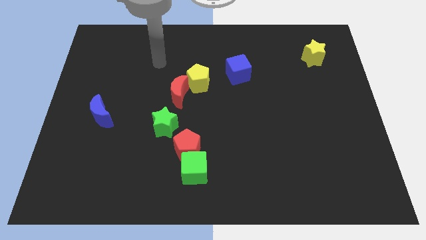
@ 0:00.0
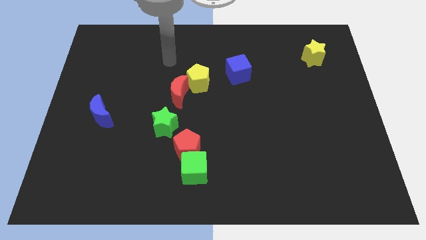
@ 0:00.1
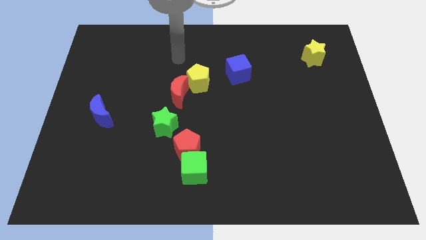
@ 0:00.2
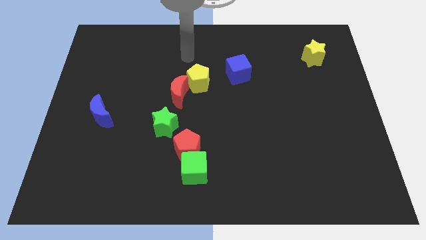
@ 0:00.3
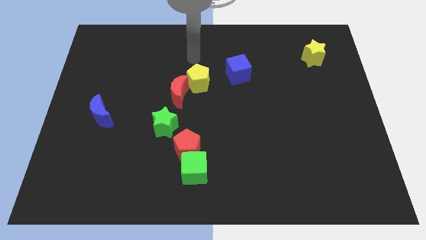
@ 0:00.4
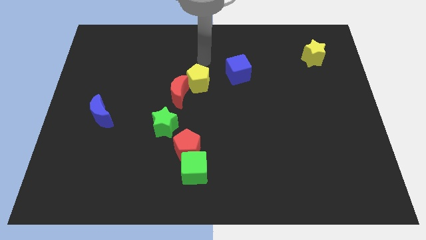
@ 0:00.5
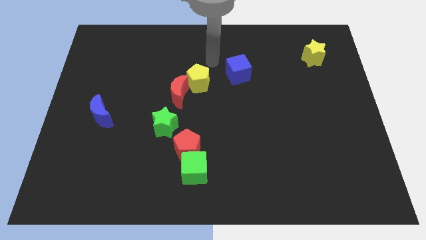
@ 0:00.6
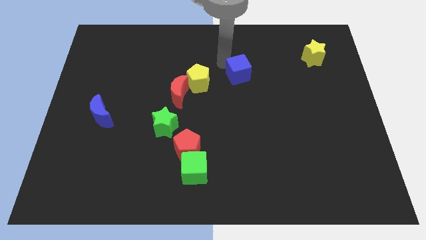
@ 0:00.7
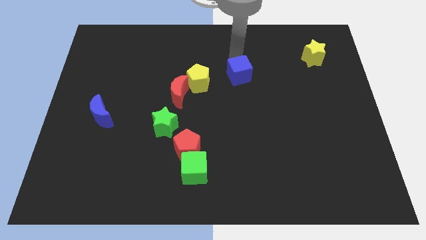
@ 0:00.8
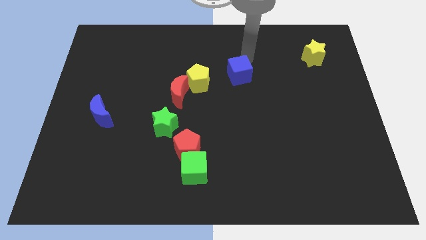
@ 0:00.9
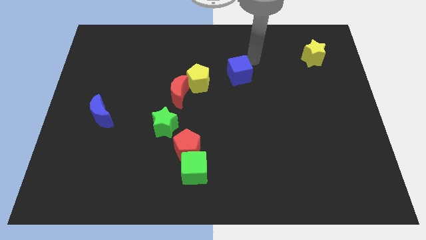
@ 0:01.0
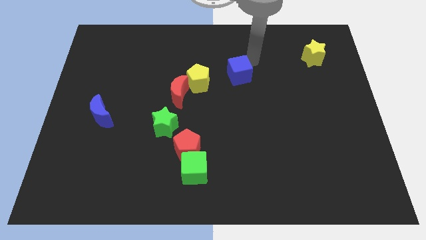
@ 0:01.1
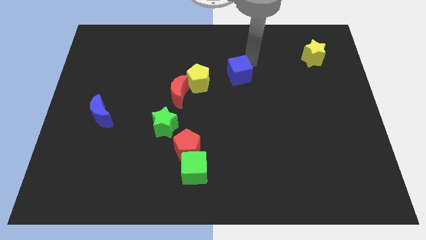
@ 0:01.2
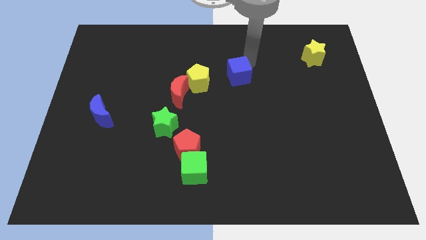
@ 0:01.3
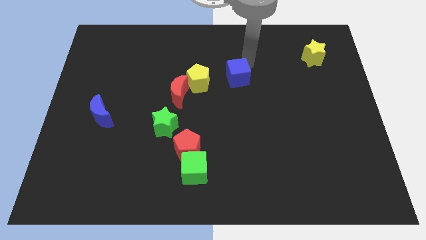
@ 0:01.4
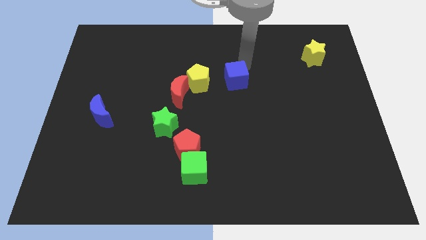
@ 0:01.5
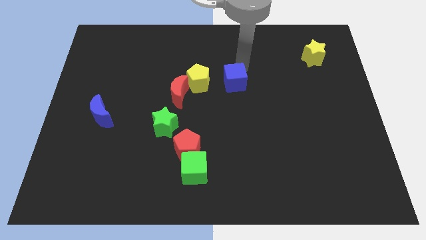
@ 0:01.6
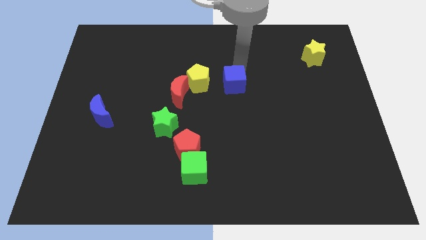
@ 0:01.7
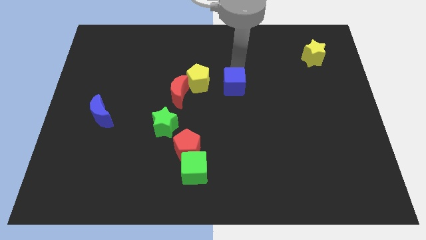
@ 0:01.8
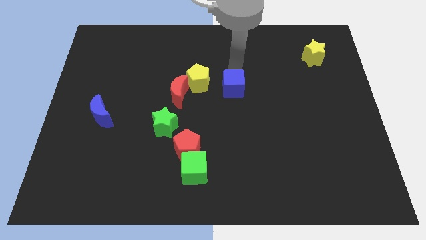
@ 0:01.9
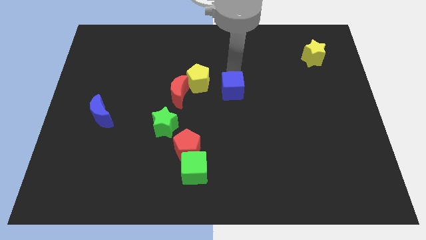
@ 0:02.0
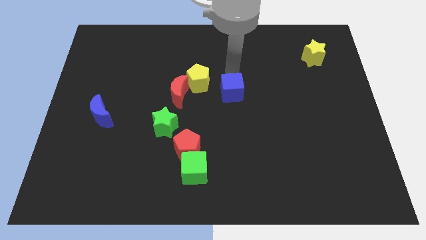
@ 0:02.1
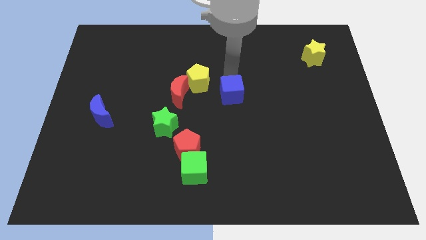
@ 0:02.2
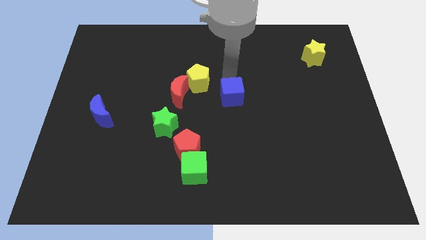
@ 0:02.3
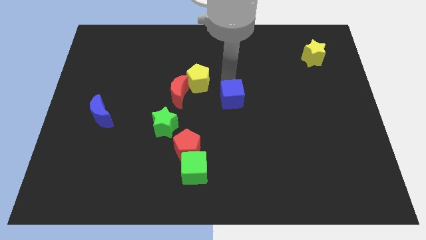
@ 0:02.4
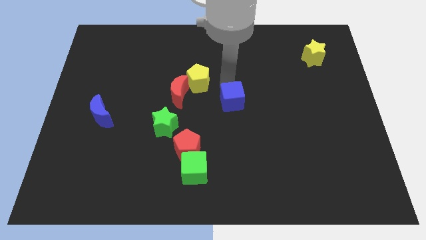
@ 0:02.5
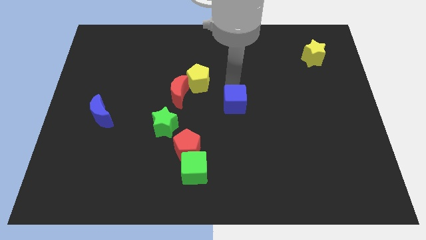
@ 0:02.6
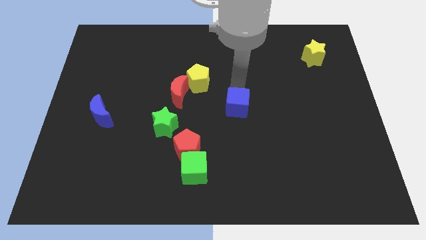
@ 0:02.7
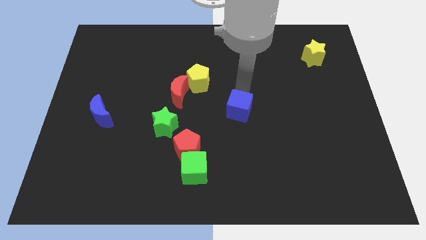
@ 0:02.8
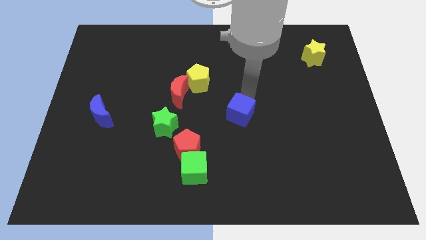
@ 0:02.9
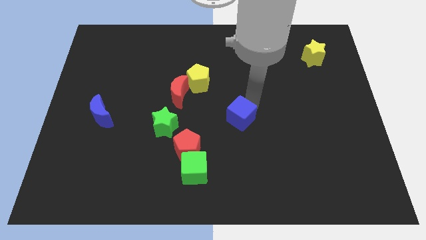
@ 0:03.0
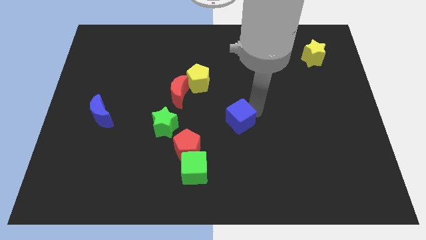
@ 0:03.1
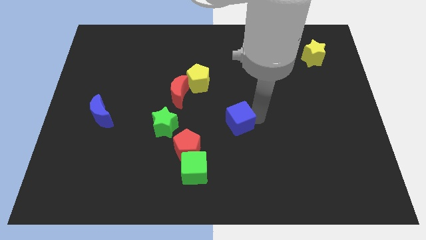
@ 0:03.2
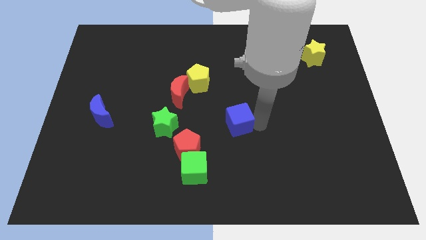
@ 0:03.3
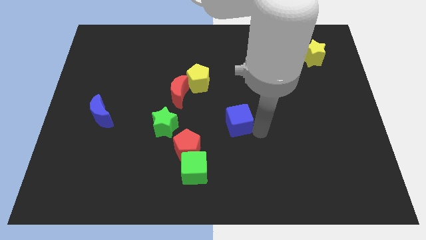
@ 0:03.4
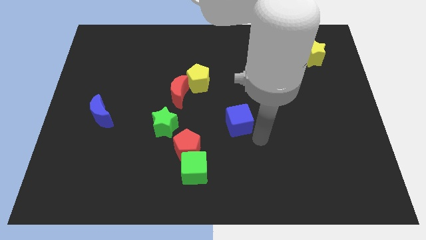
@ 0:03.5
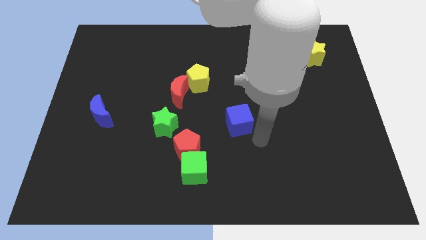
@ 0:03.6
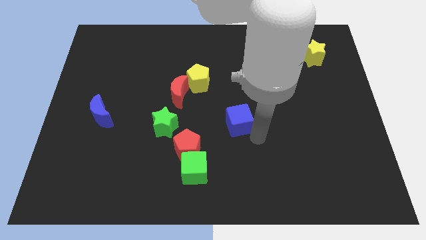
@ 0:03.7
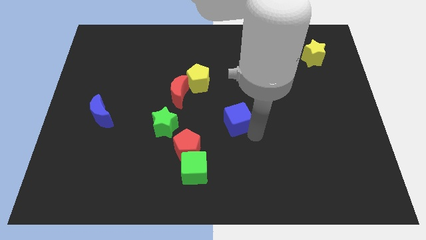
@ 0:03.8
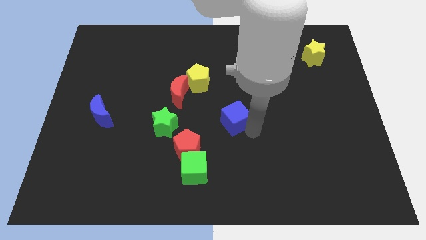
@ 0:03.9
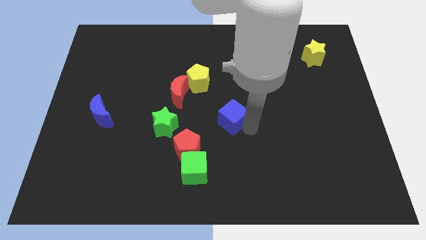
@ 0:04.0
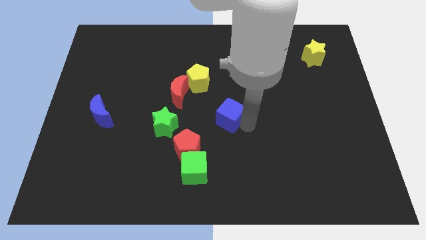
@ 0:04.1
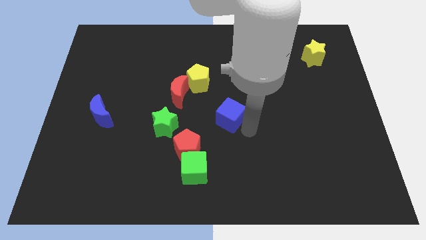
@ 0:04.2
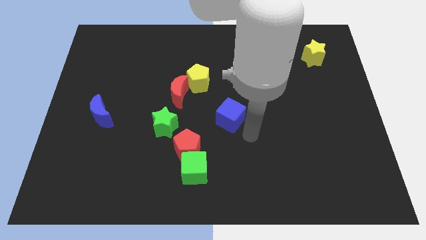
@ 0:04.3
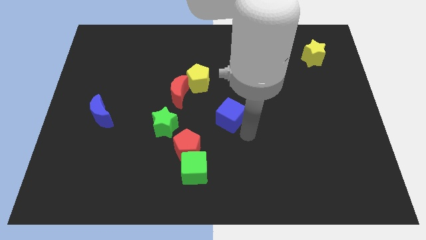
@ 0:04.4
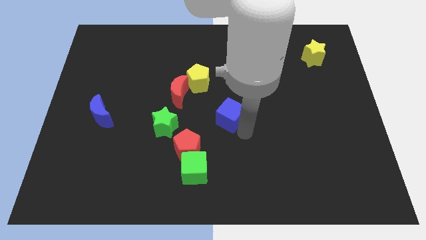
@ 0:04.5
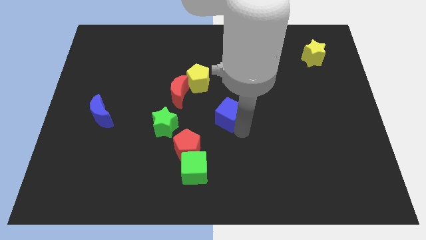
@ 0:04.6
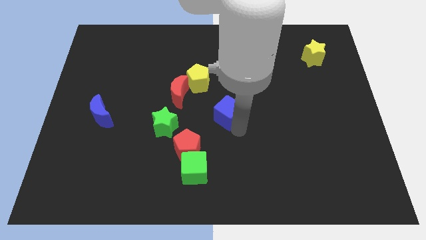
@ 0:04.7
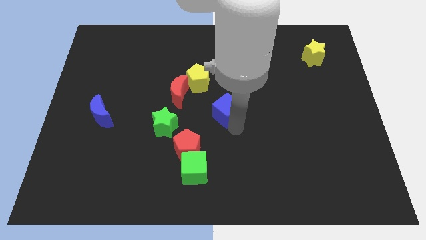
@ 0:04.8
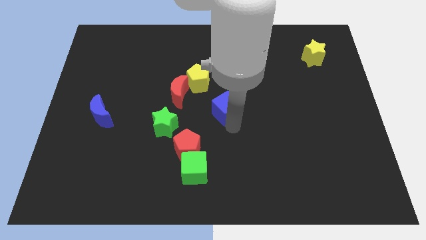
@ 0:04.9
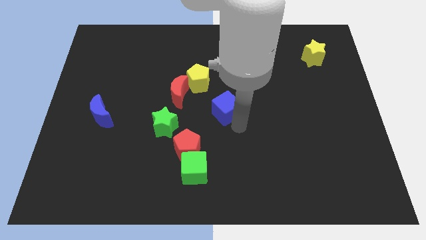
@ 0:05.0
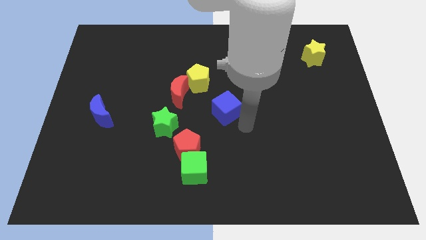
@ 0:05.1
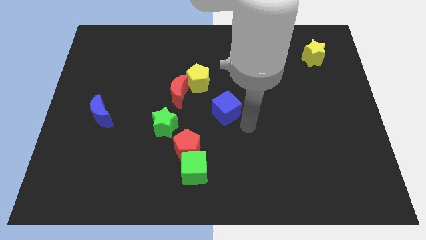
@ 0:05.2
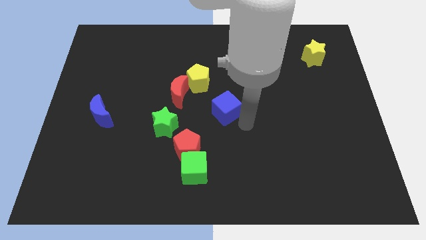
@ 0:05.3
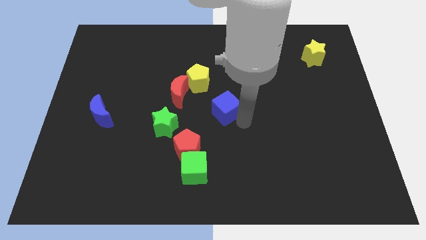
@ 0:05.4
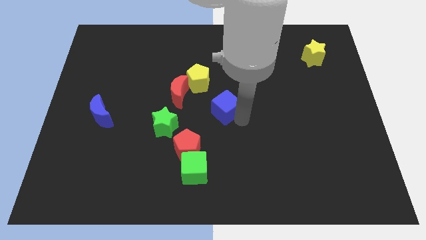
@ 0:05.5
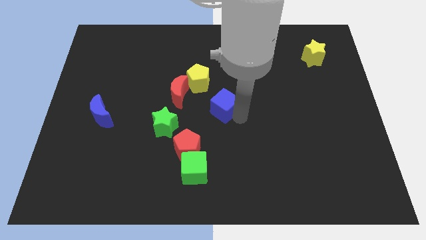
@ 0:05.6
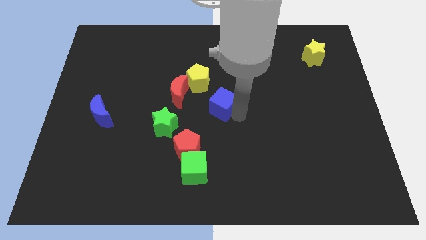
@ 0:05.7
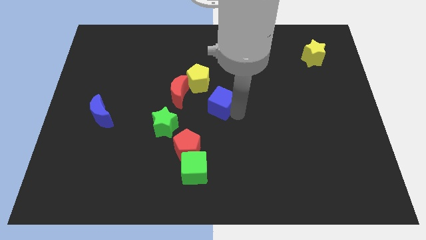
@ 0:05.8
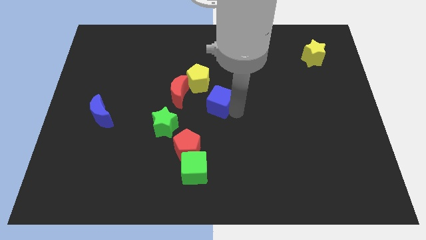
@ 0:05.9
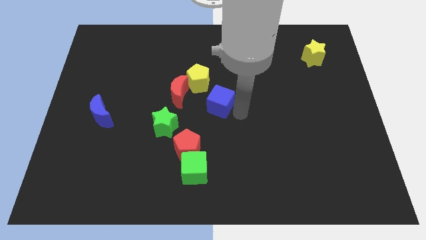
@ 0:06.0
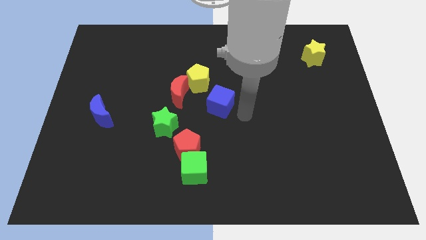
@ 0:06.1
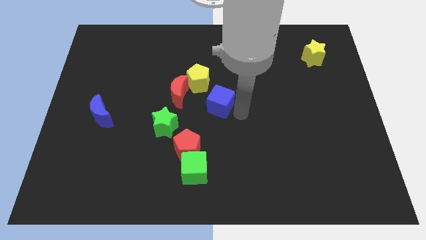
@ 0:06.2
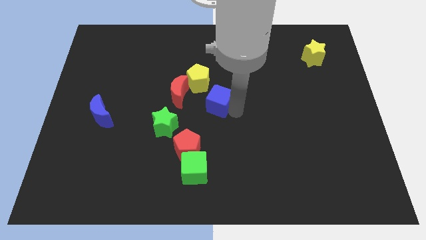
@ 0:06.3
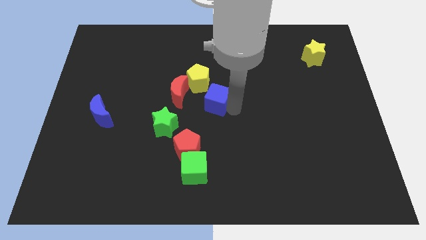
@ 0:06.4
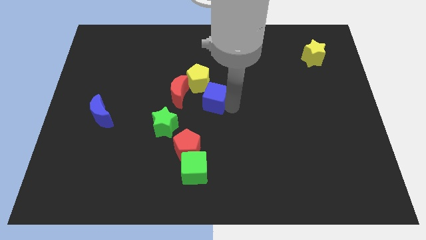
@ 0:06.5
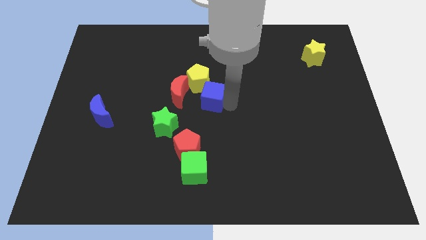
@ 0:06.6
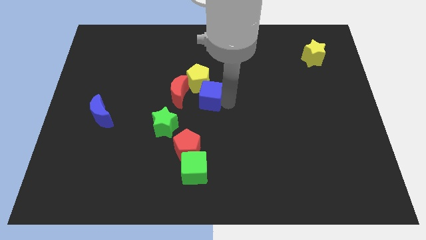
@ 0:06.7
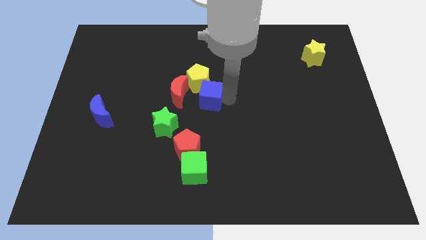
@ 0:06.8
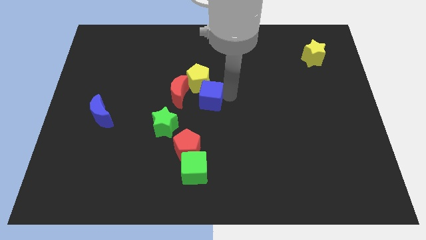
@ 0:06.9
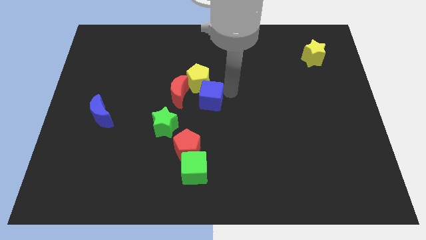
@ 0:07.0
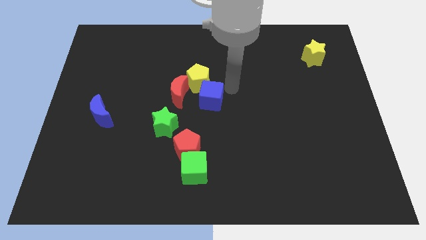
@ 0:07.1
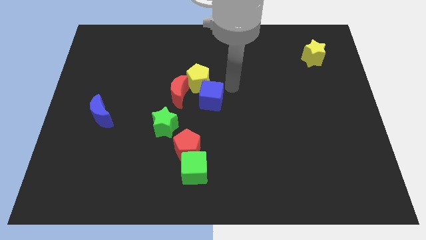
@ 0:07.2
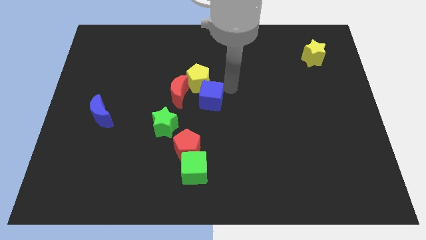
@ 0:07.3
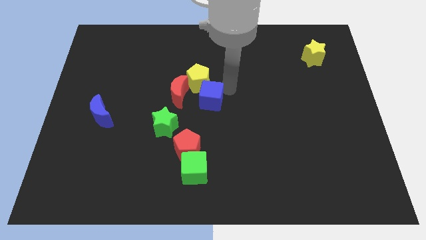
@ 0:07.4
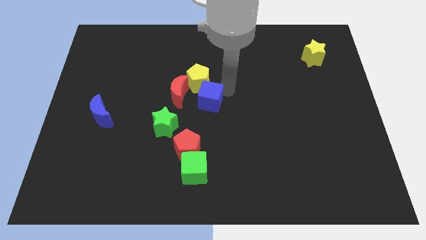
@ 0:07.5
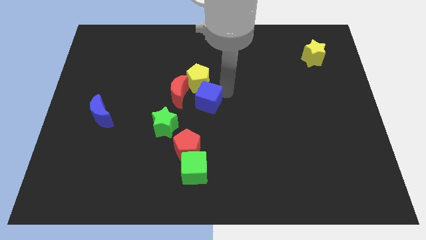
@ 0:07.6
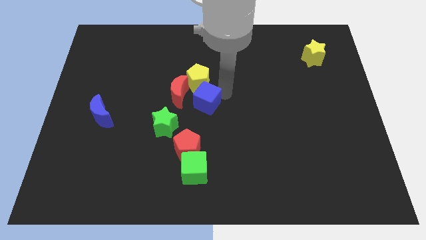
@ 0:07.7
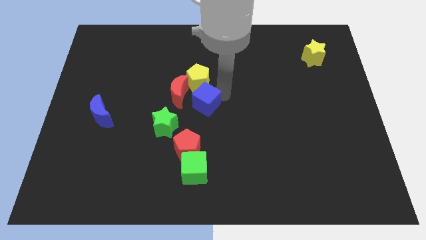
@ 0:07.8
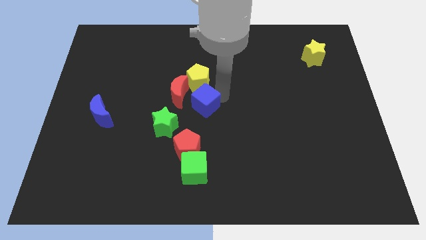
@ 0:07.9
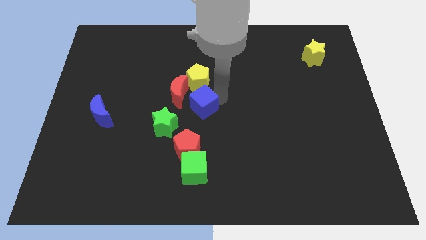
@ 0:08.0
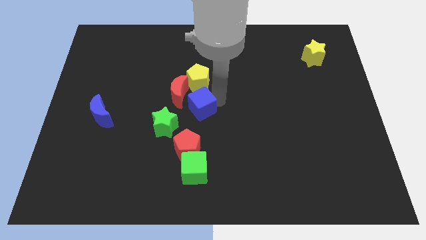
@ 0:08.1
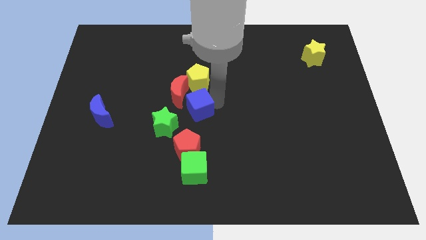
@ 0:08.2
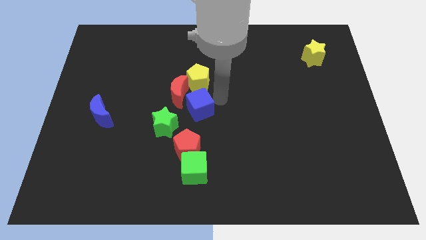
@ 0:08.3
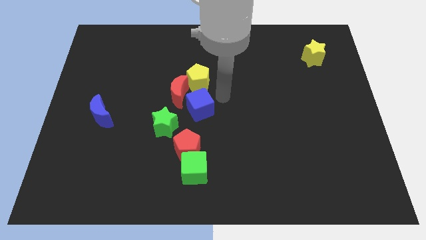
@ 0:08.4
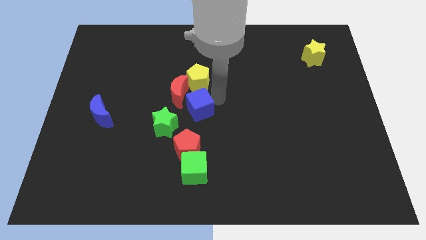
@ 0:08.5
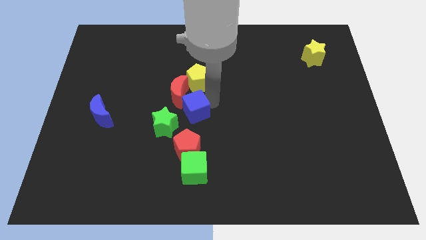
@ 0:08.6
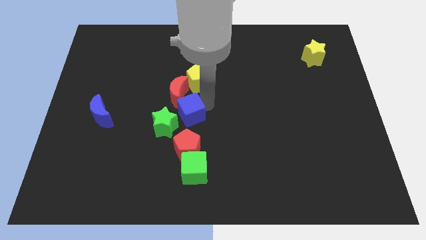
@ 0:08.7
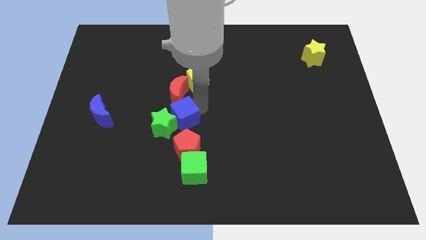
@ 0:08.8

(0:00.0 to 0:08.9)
slide the blue cube to the green star
